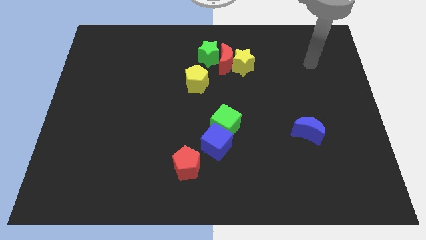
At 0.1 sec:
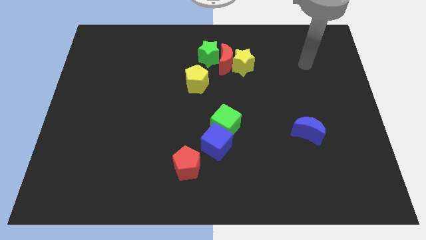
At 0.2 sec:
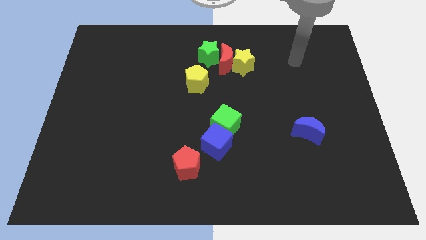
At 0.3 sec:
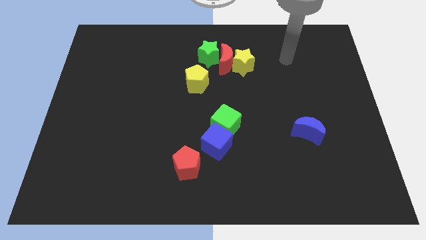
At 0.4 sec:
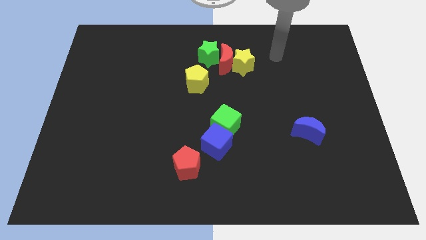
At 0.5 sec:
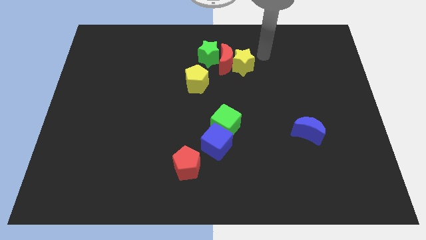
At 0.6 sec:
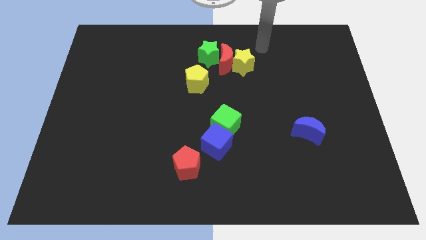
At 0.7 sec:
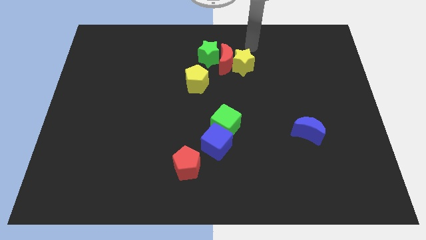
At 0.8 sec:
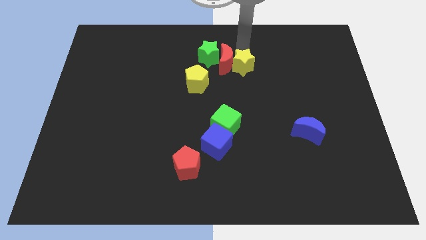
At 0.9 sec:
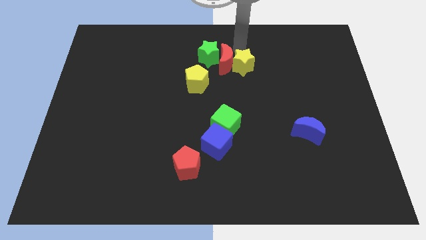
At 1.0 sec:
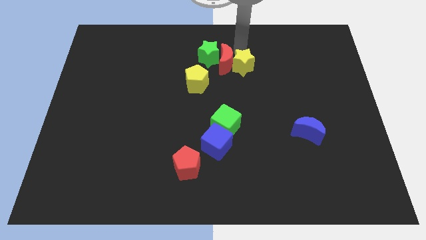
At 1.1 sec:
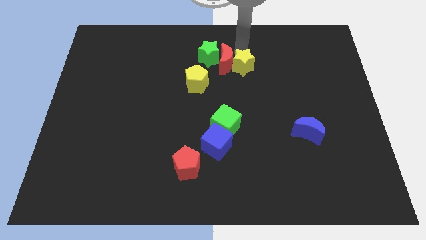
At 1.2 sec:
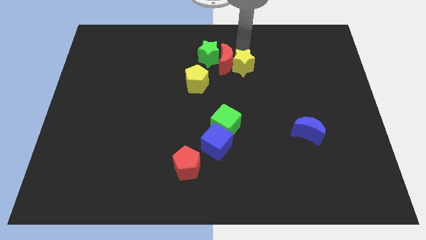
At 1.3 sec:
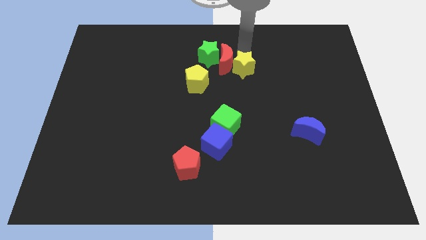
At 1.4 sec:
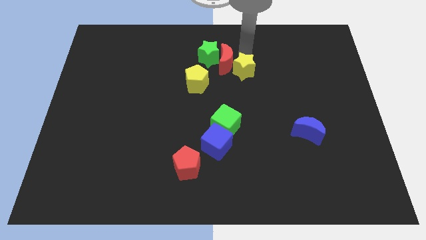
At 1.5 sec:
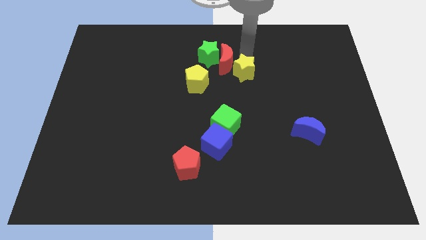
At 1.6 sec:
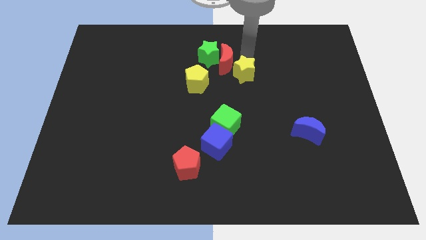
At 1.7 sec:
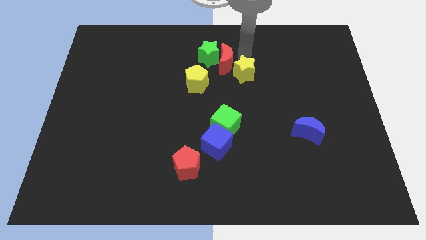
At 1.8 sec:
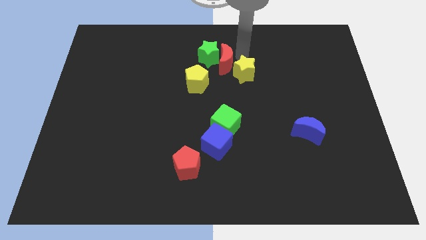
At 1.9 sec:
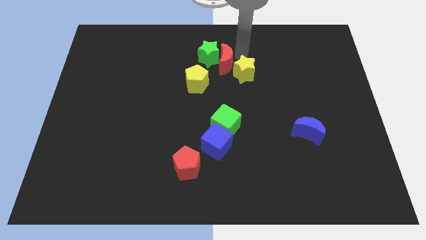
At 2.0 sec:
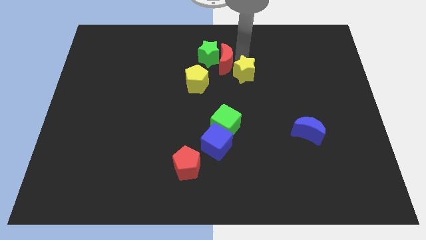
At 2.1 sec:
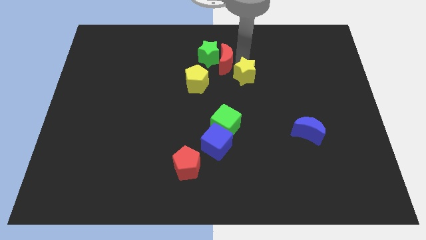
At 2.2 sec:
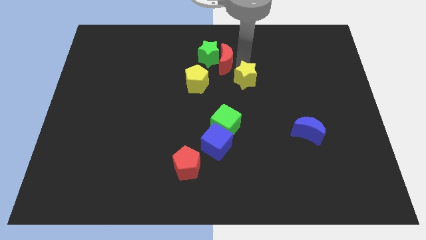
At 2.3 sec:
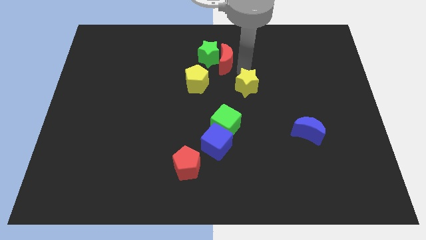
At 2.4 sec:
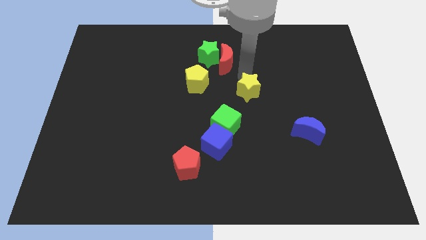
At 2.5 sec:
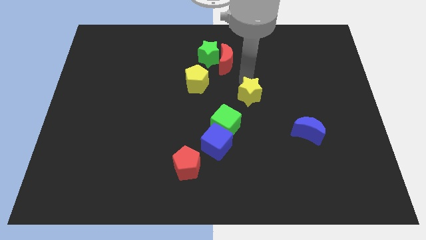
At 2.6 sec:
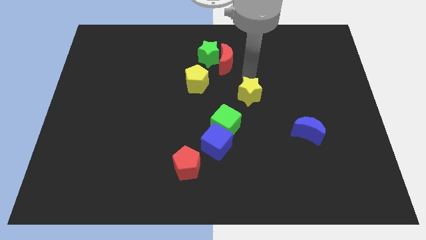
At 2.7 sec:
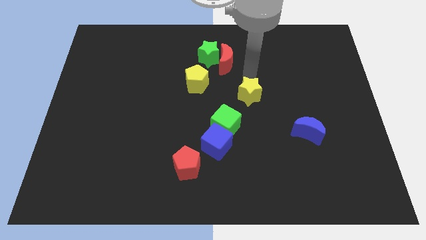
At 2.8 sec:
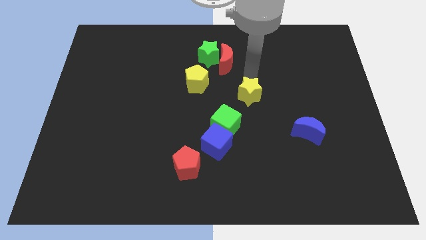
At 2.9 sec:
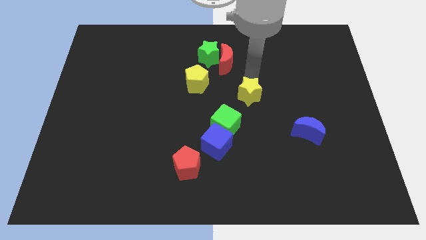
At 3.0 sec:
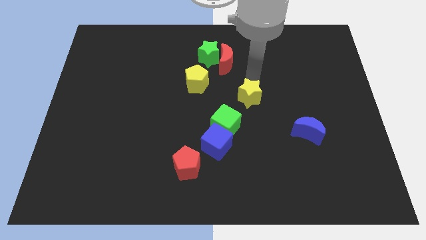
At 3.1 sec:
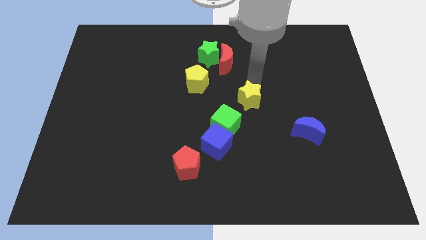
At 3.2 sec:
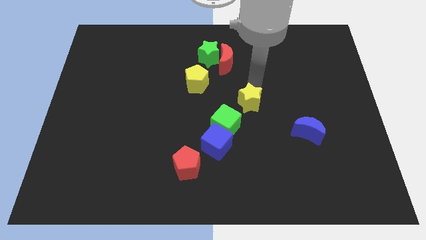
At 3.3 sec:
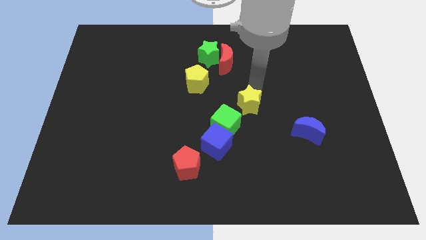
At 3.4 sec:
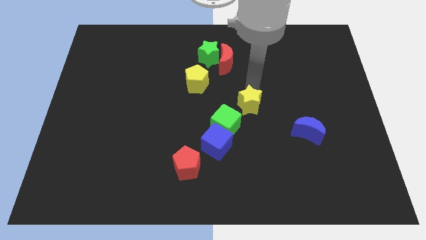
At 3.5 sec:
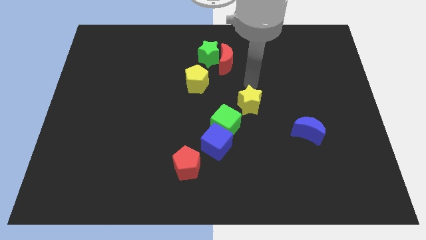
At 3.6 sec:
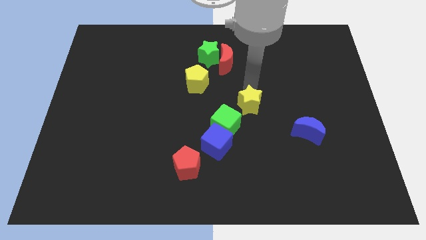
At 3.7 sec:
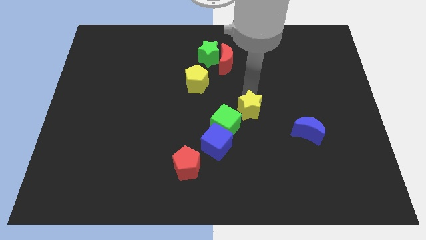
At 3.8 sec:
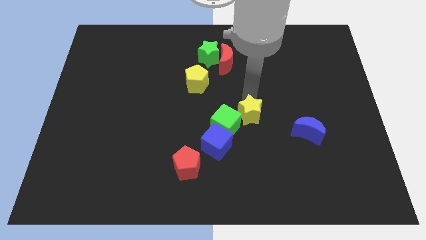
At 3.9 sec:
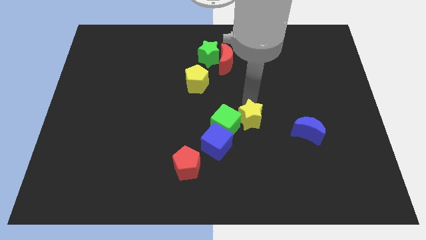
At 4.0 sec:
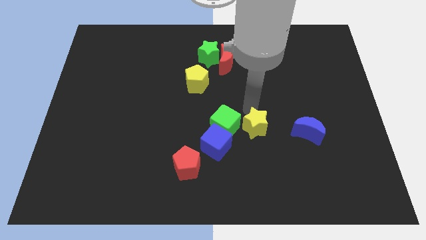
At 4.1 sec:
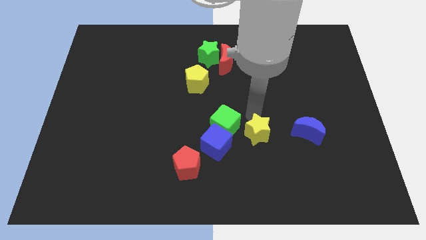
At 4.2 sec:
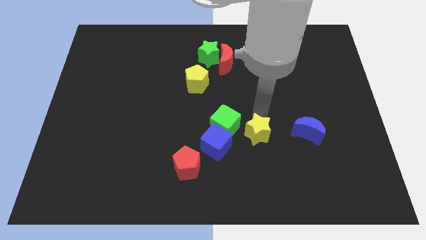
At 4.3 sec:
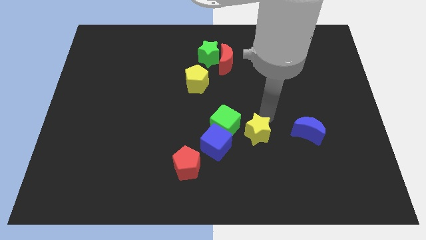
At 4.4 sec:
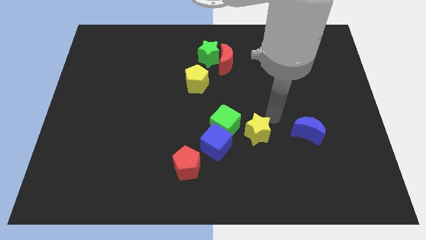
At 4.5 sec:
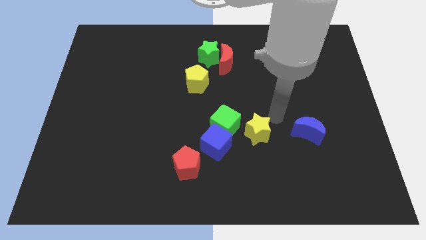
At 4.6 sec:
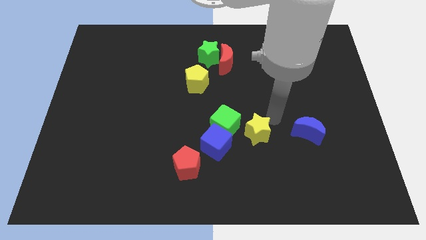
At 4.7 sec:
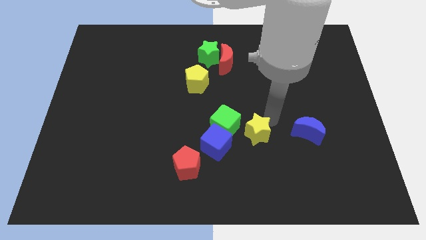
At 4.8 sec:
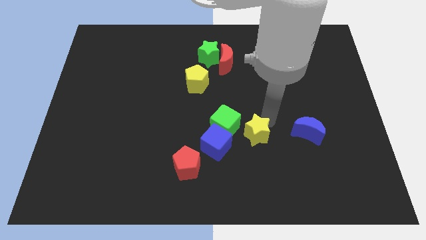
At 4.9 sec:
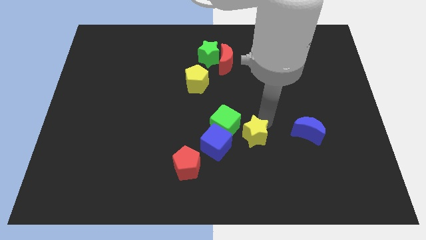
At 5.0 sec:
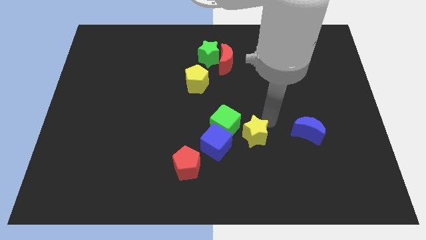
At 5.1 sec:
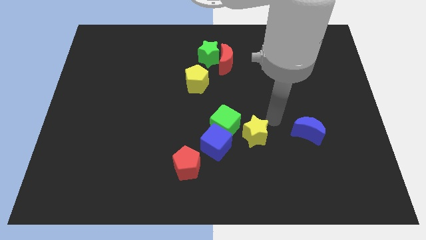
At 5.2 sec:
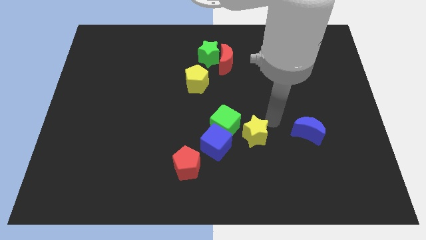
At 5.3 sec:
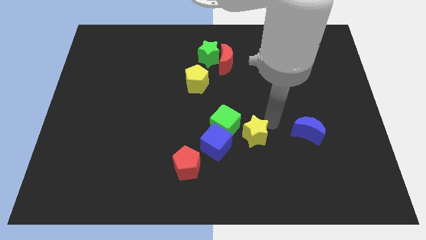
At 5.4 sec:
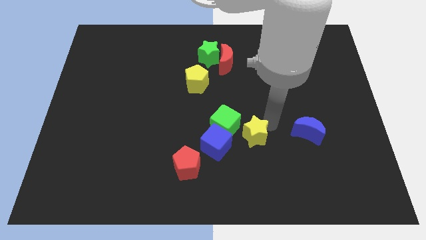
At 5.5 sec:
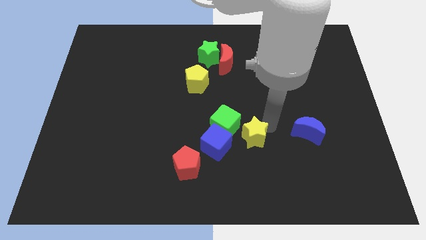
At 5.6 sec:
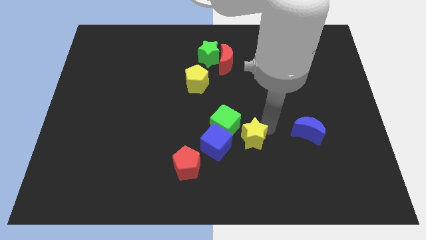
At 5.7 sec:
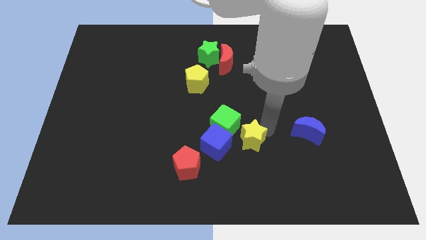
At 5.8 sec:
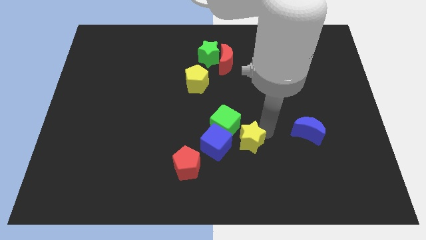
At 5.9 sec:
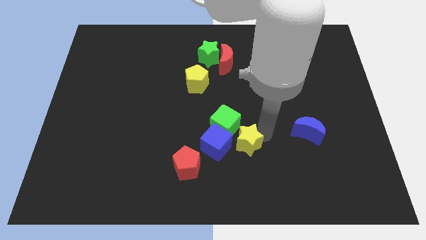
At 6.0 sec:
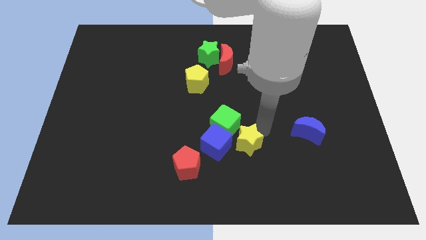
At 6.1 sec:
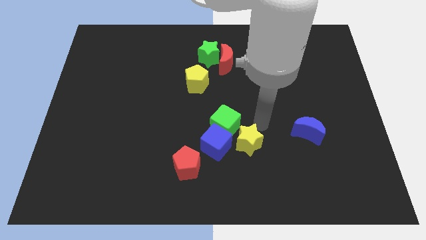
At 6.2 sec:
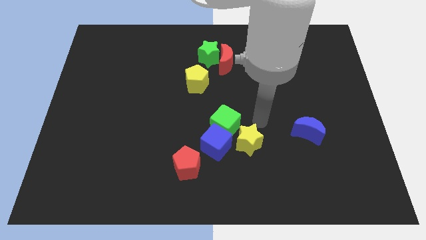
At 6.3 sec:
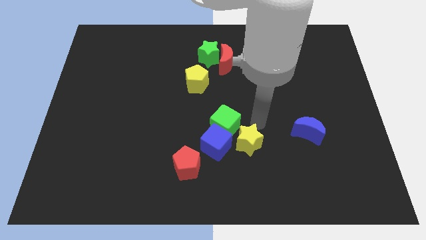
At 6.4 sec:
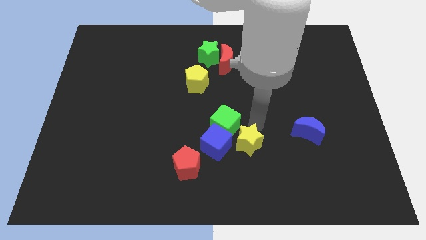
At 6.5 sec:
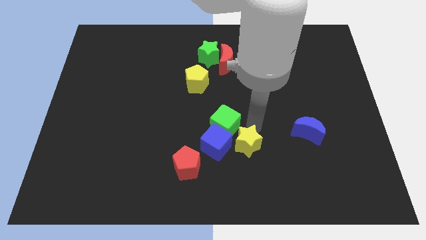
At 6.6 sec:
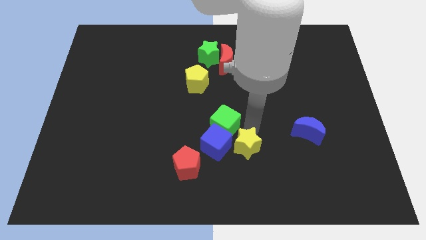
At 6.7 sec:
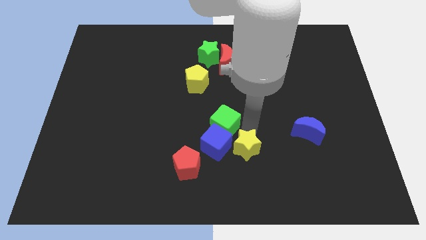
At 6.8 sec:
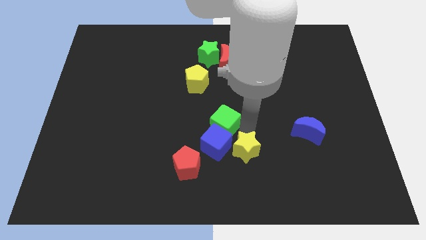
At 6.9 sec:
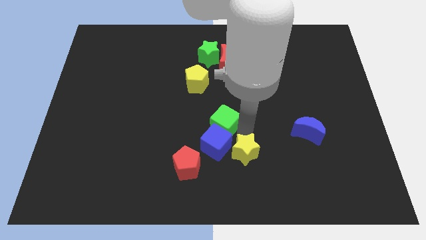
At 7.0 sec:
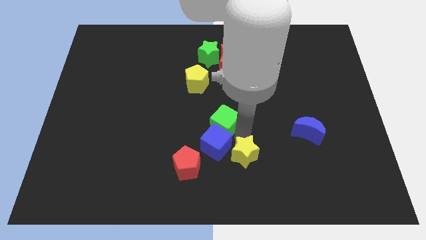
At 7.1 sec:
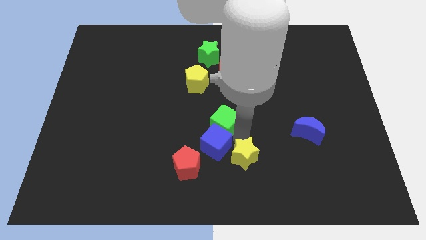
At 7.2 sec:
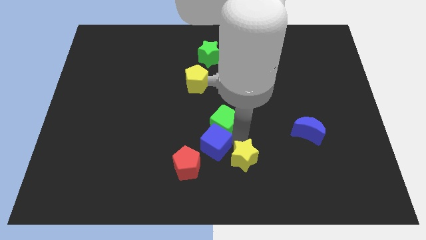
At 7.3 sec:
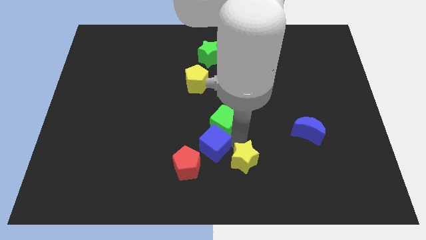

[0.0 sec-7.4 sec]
push the yellow star to the bottom
